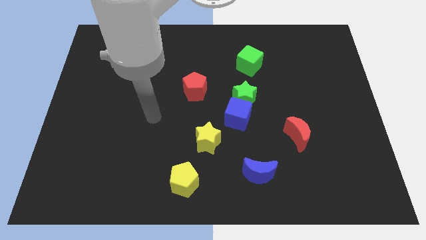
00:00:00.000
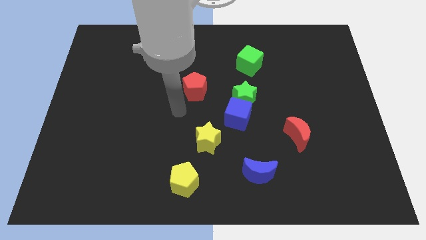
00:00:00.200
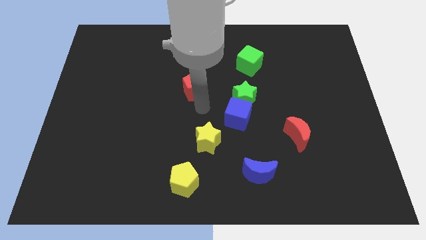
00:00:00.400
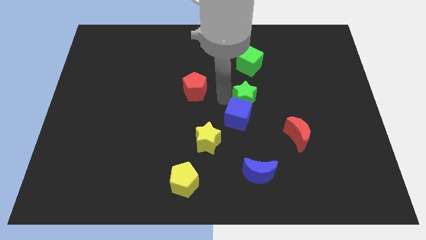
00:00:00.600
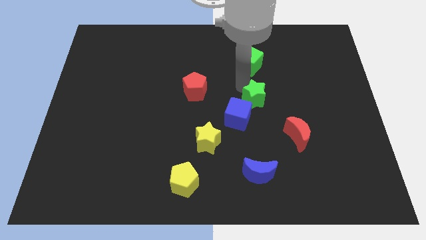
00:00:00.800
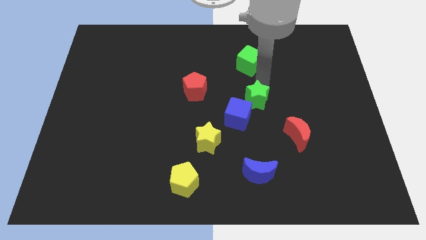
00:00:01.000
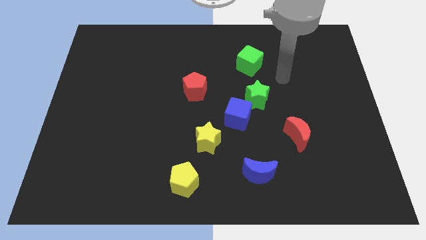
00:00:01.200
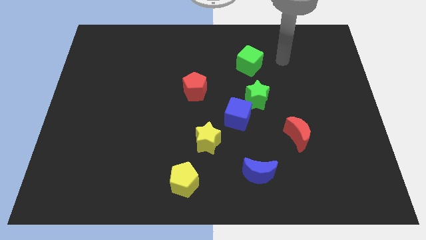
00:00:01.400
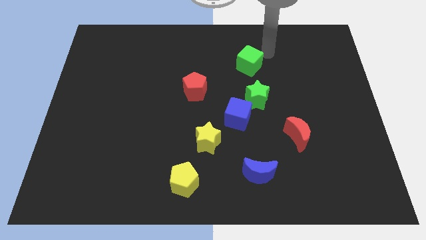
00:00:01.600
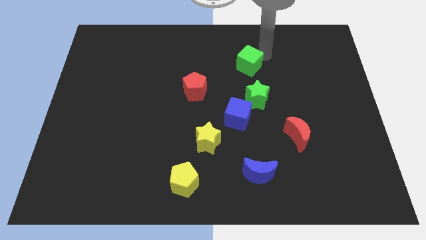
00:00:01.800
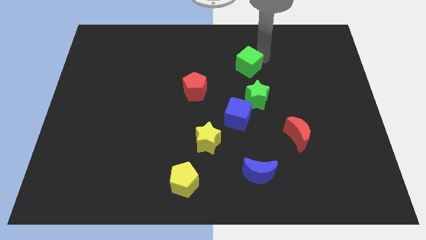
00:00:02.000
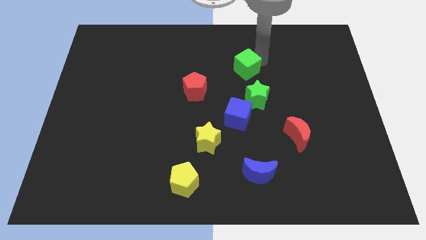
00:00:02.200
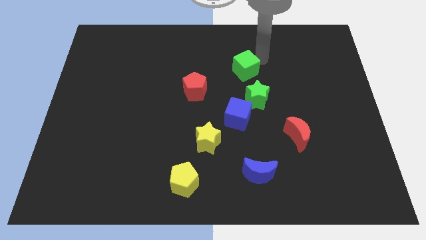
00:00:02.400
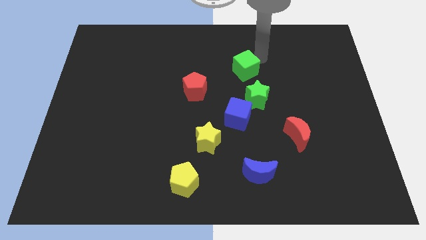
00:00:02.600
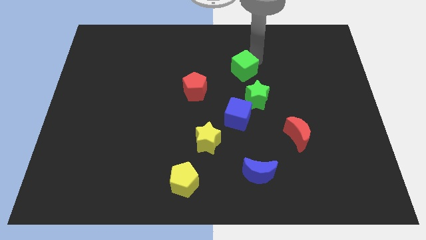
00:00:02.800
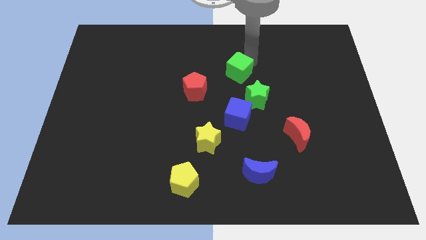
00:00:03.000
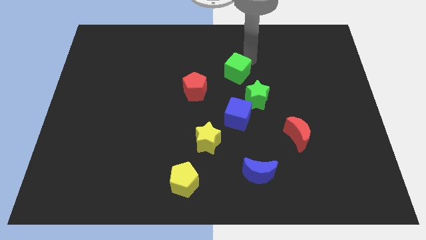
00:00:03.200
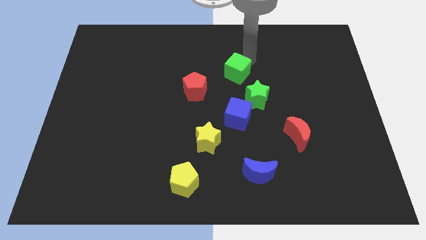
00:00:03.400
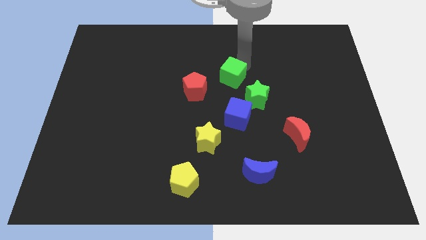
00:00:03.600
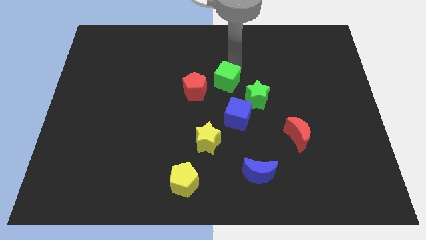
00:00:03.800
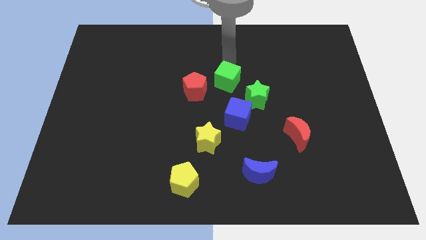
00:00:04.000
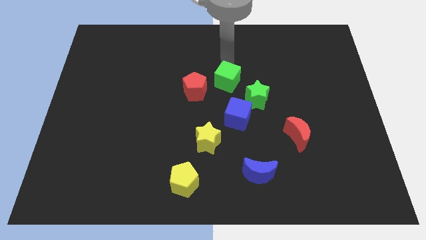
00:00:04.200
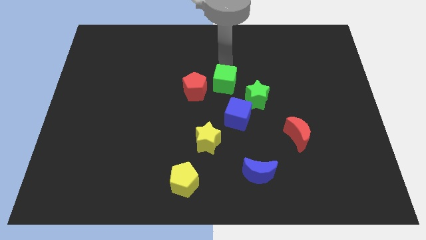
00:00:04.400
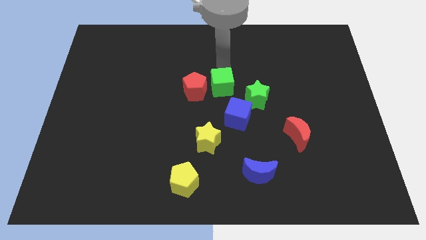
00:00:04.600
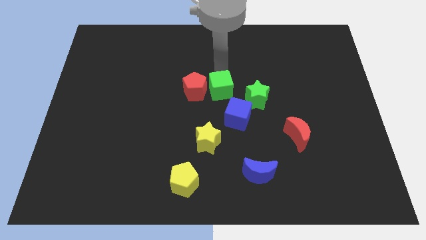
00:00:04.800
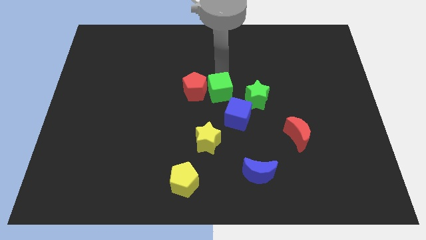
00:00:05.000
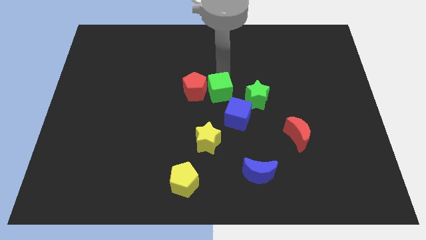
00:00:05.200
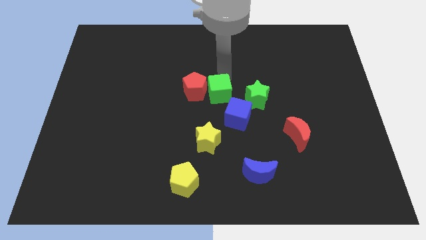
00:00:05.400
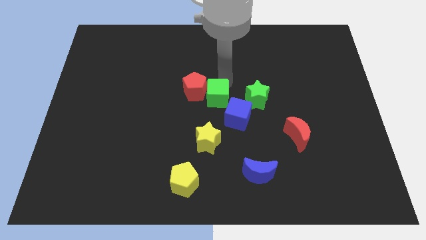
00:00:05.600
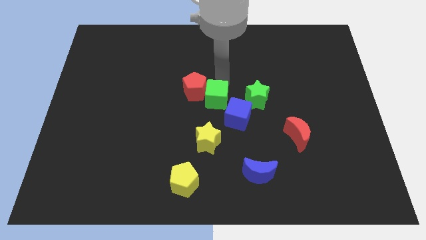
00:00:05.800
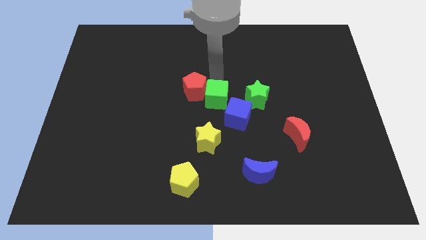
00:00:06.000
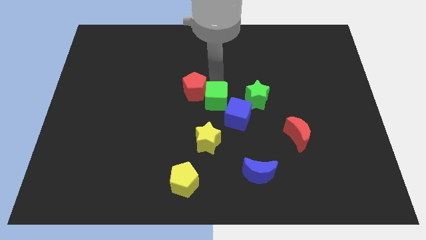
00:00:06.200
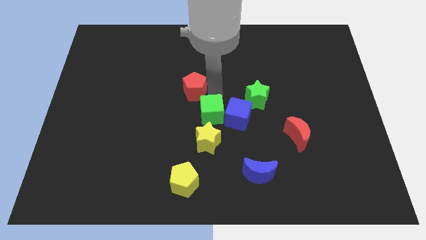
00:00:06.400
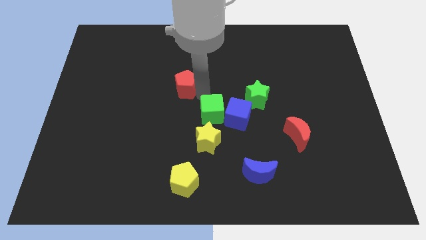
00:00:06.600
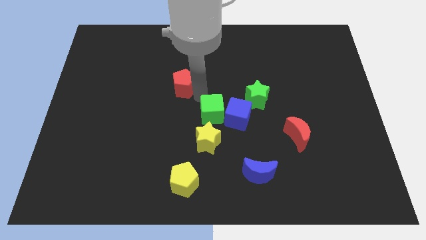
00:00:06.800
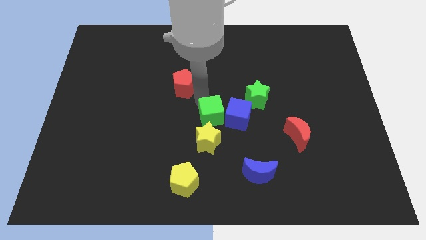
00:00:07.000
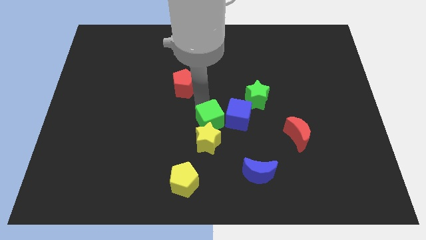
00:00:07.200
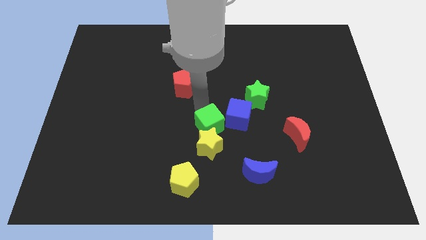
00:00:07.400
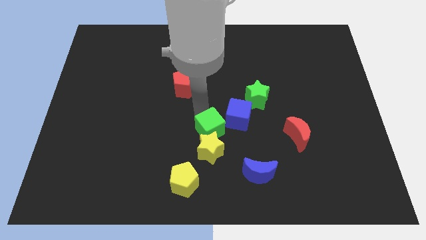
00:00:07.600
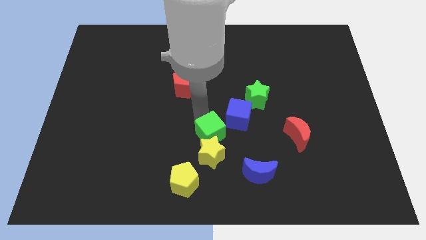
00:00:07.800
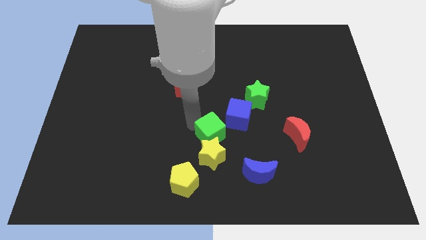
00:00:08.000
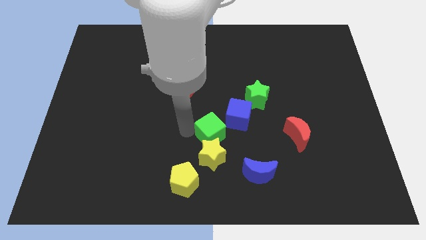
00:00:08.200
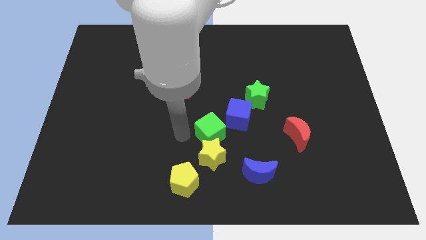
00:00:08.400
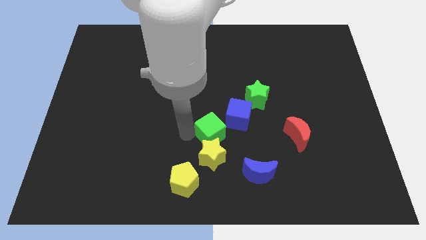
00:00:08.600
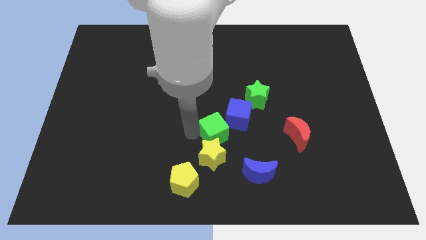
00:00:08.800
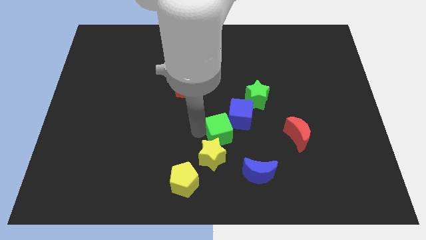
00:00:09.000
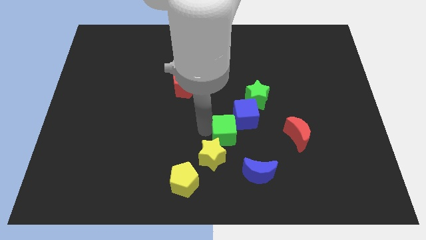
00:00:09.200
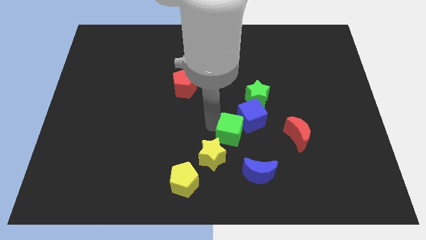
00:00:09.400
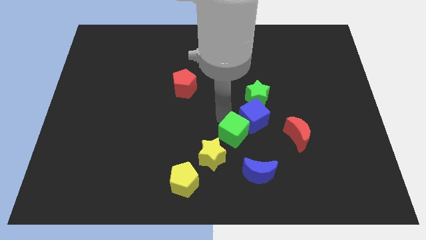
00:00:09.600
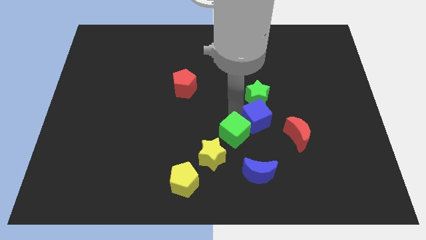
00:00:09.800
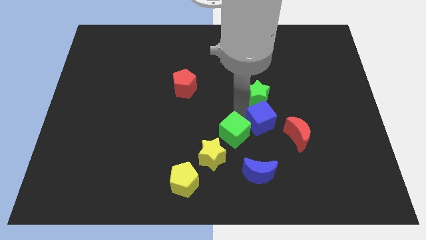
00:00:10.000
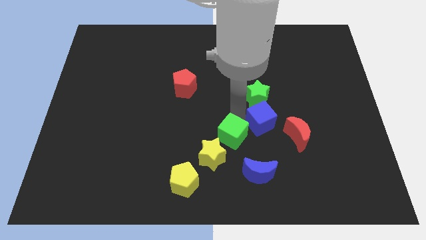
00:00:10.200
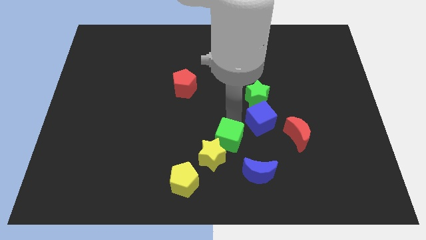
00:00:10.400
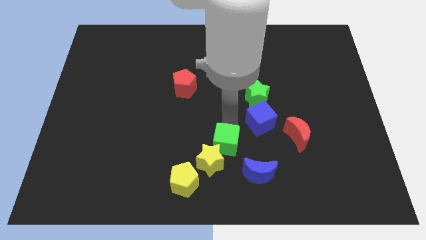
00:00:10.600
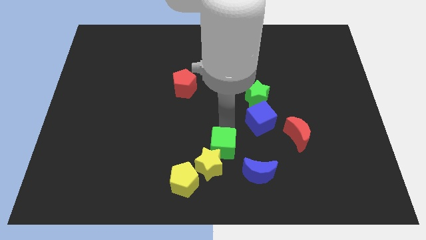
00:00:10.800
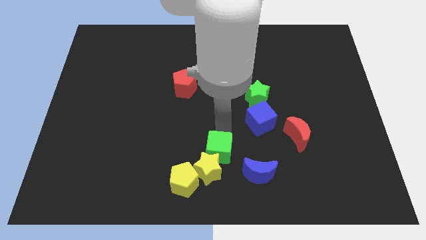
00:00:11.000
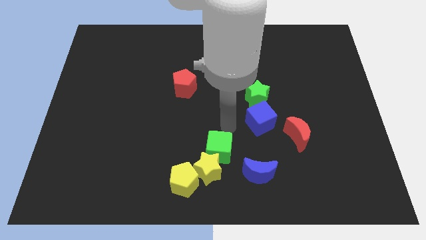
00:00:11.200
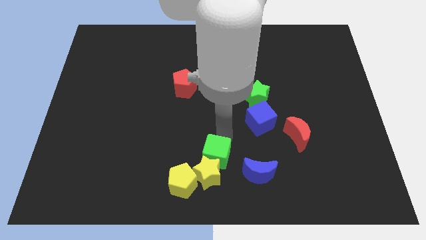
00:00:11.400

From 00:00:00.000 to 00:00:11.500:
push the green cube to the bottom side

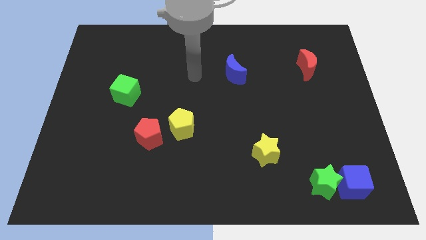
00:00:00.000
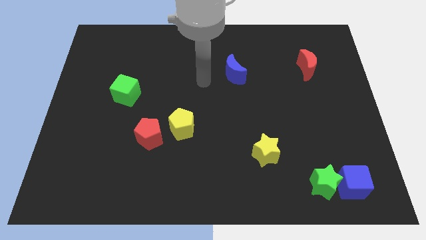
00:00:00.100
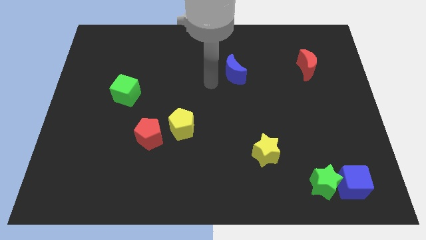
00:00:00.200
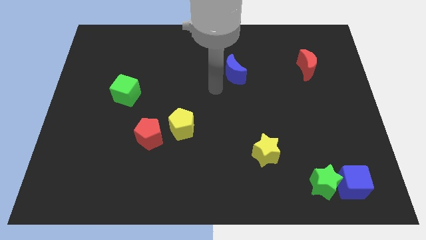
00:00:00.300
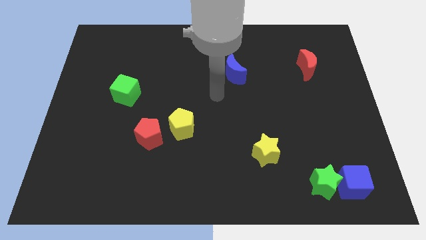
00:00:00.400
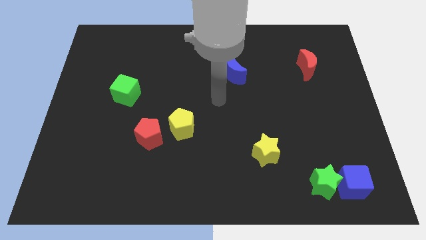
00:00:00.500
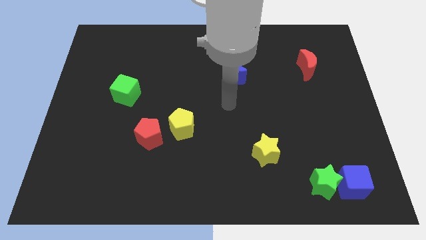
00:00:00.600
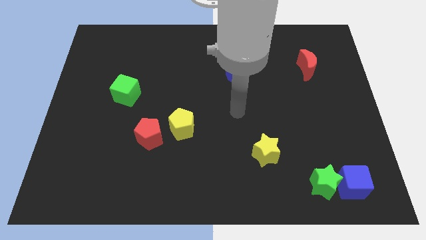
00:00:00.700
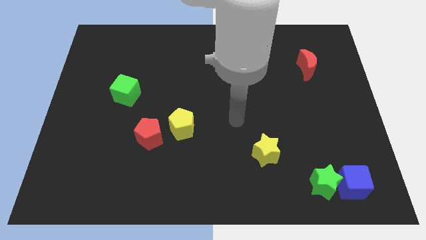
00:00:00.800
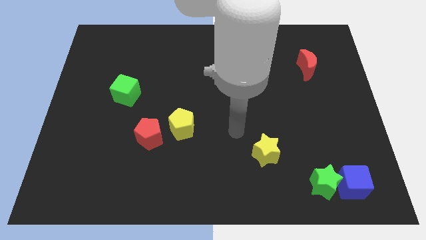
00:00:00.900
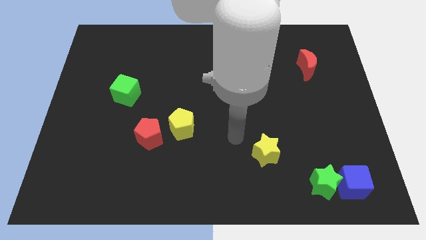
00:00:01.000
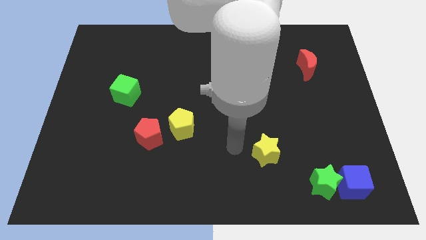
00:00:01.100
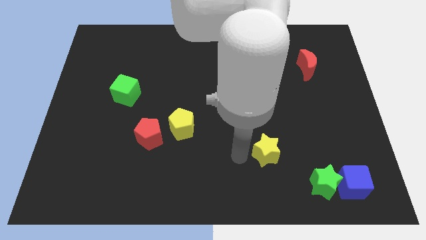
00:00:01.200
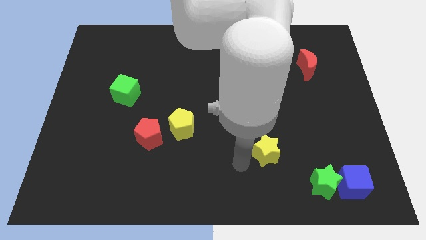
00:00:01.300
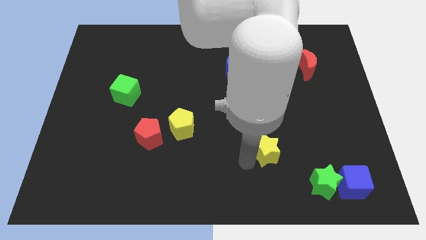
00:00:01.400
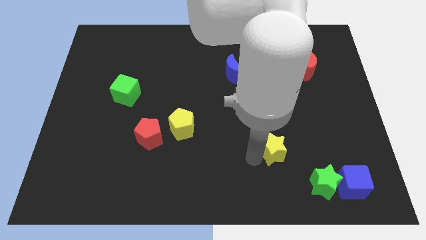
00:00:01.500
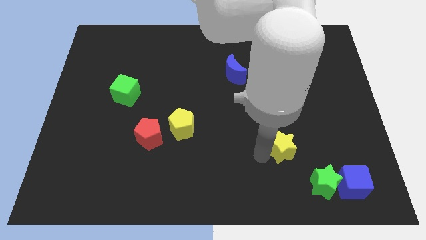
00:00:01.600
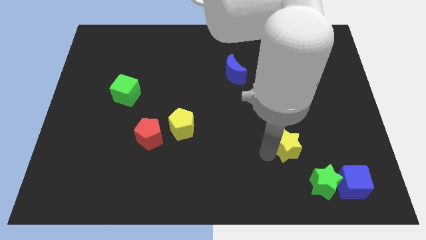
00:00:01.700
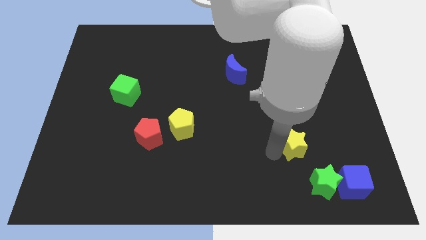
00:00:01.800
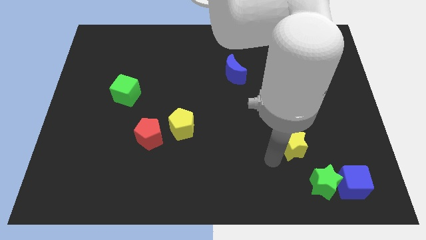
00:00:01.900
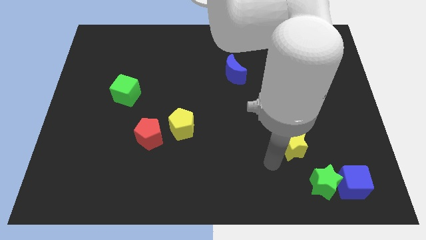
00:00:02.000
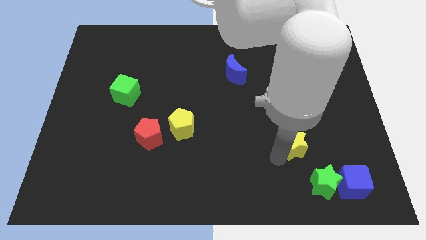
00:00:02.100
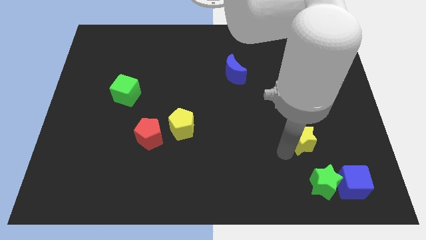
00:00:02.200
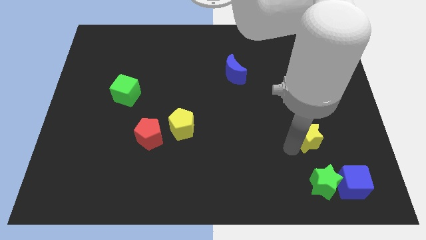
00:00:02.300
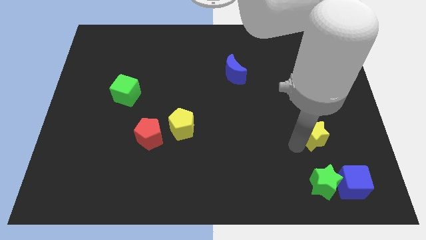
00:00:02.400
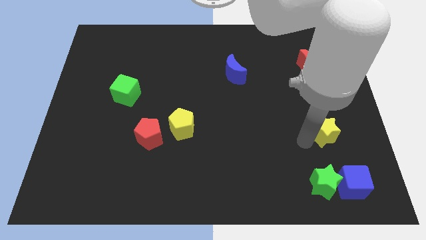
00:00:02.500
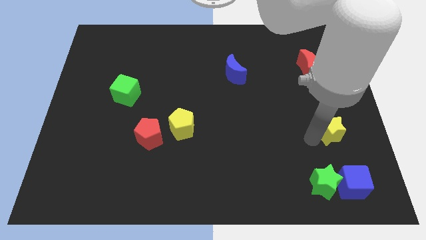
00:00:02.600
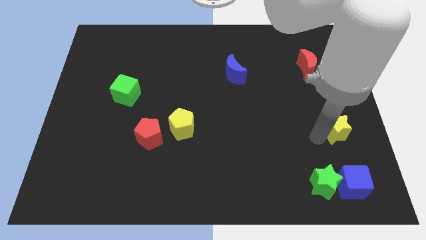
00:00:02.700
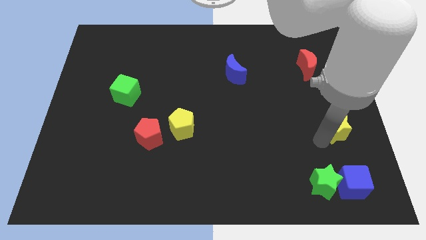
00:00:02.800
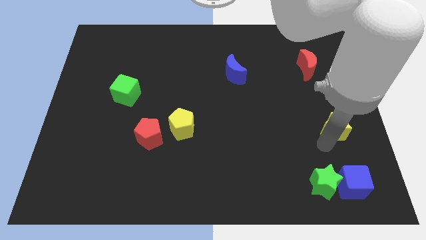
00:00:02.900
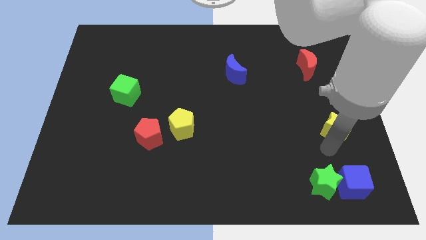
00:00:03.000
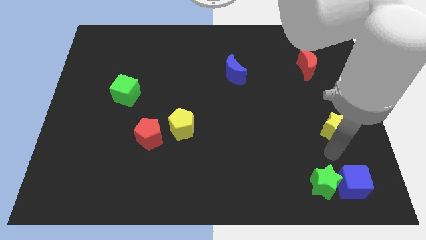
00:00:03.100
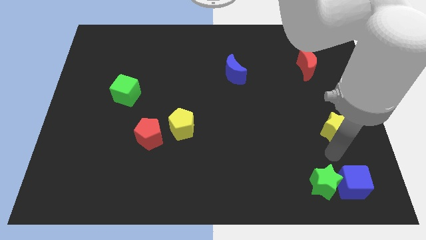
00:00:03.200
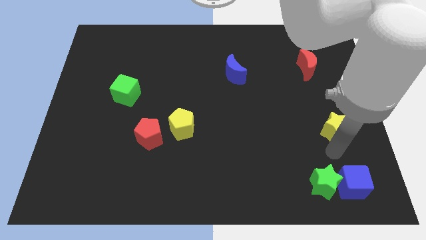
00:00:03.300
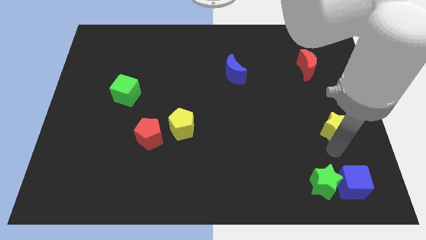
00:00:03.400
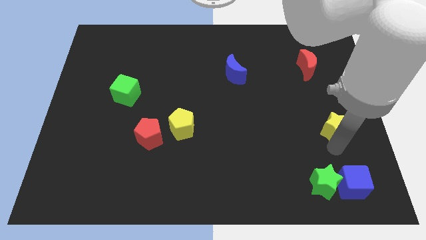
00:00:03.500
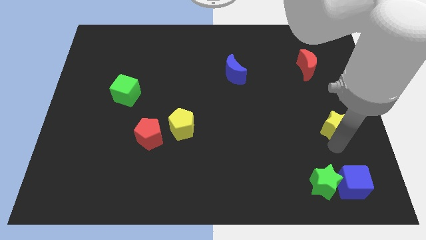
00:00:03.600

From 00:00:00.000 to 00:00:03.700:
push the yellow star to the right side
